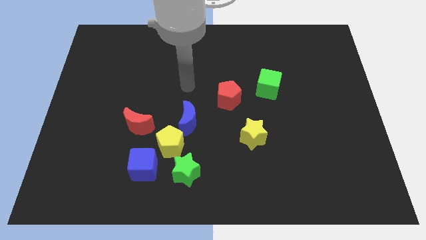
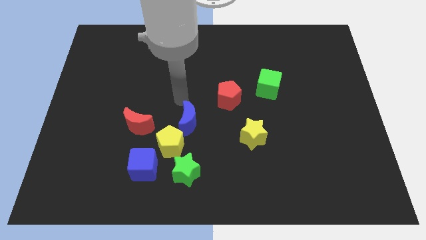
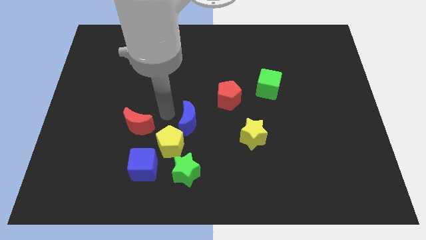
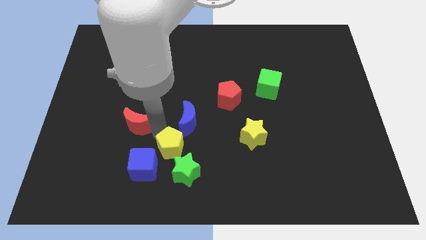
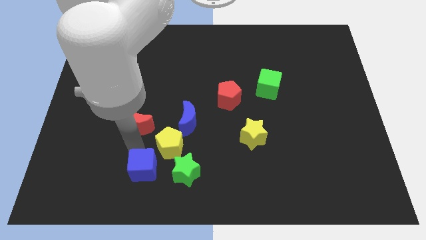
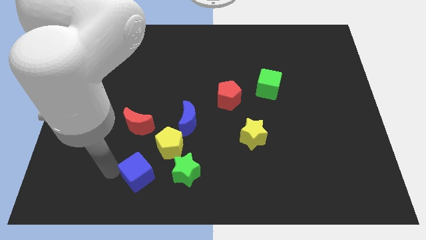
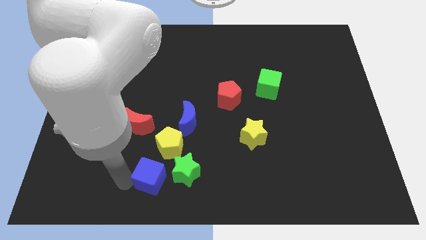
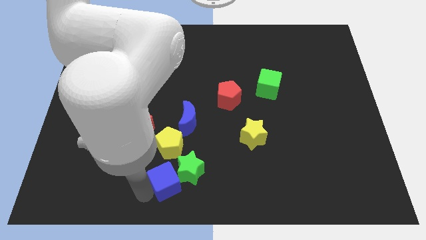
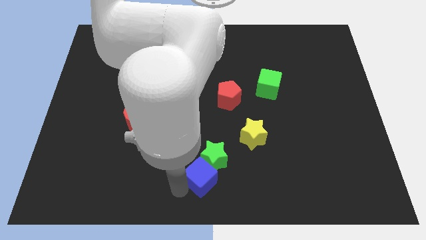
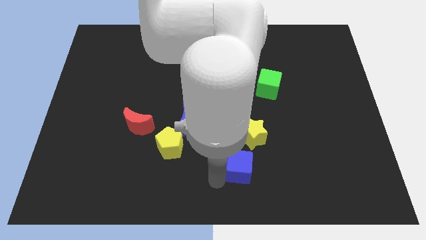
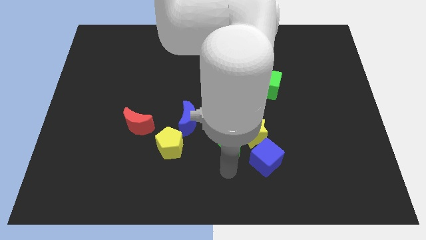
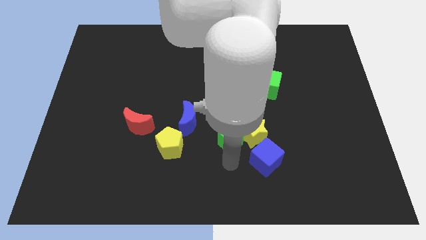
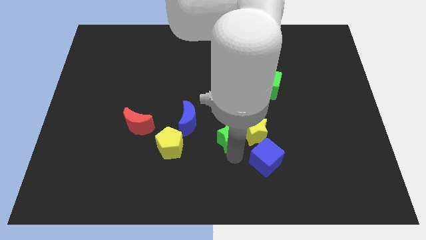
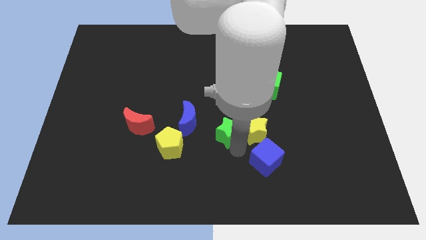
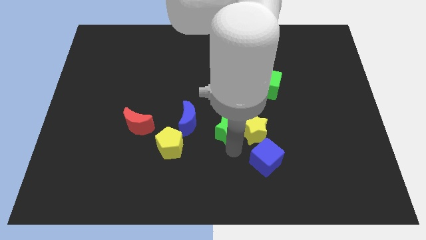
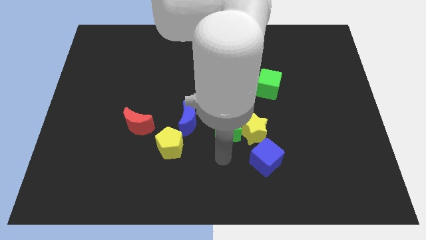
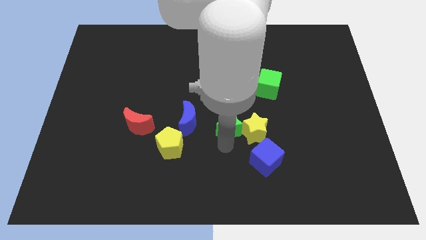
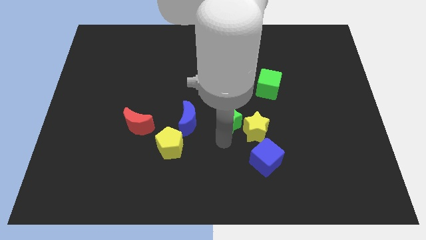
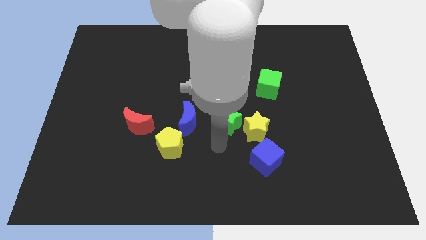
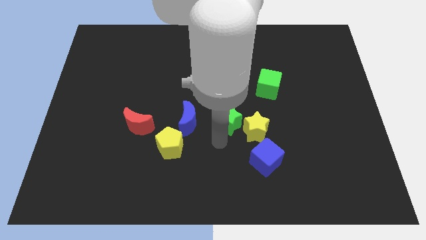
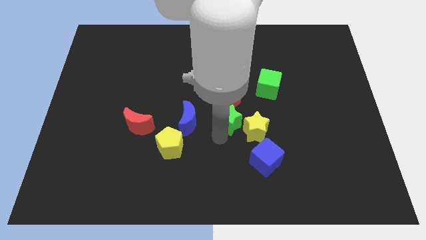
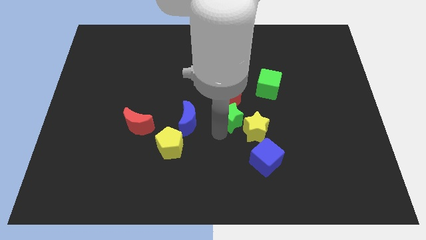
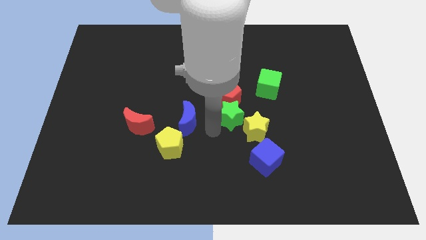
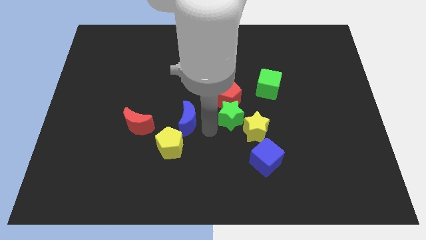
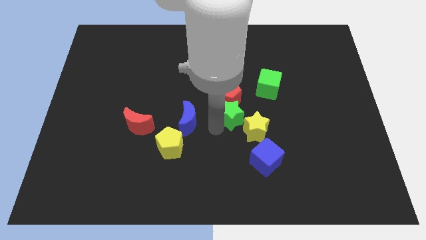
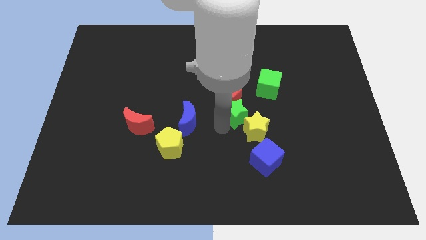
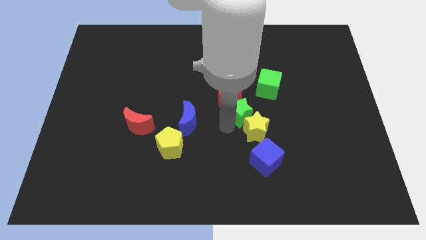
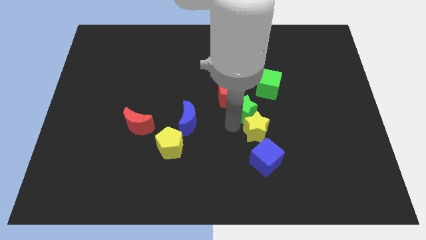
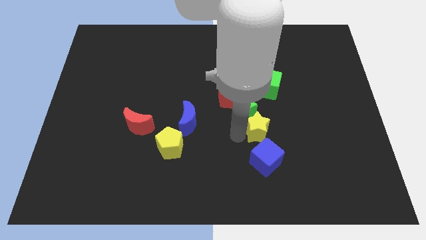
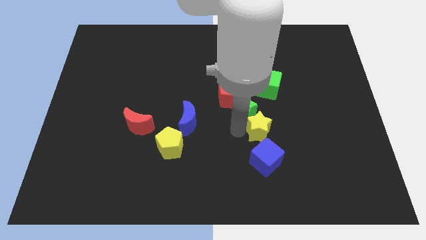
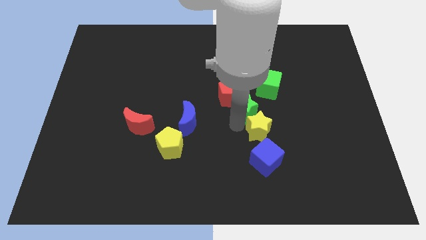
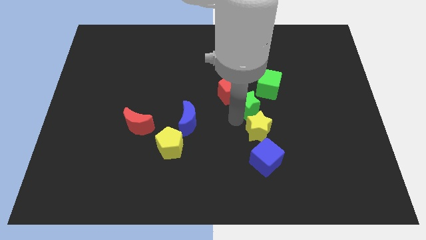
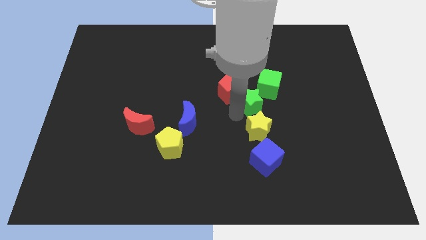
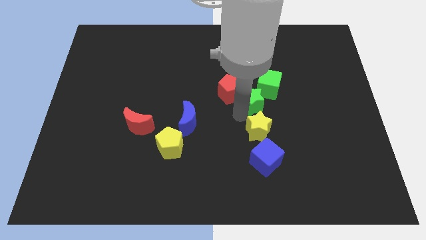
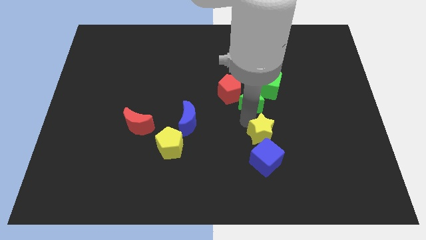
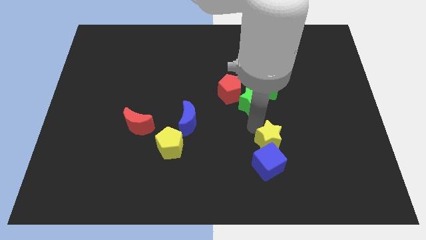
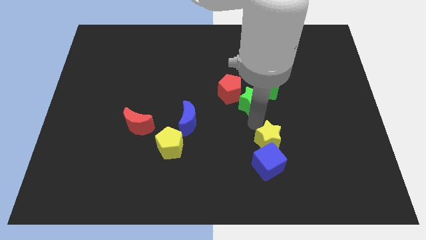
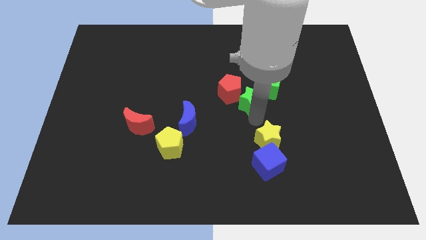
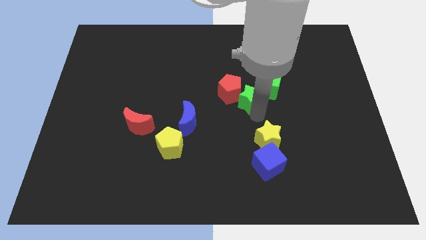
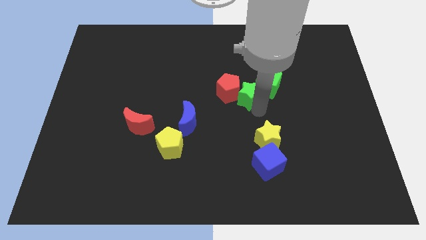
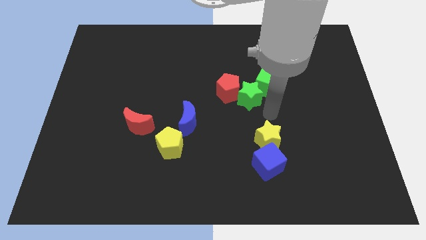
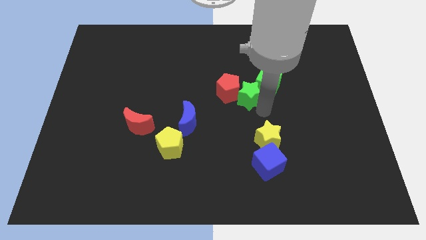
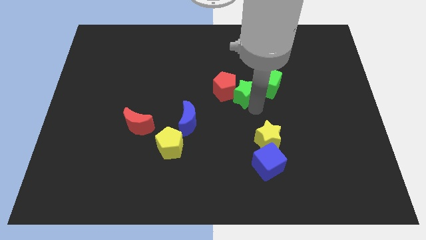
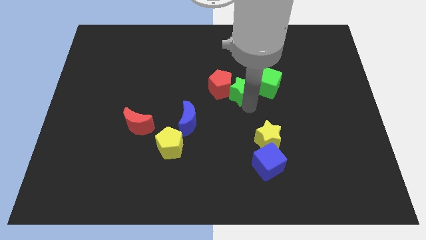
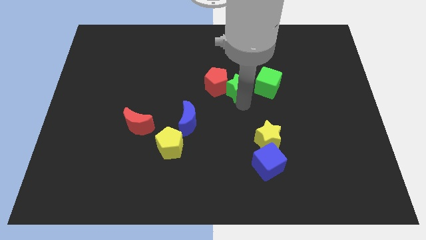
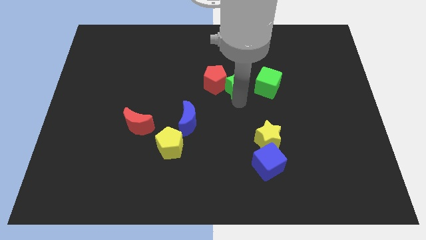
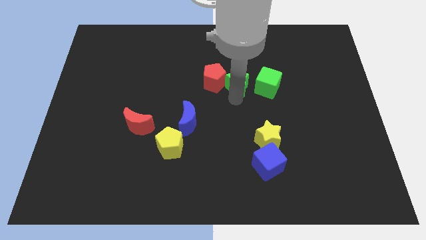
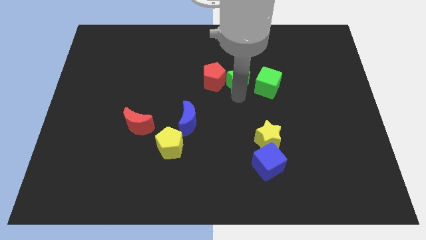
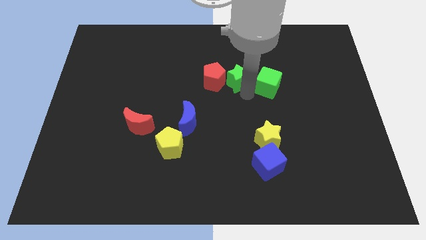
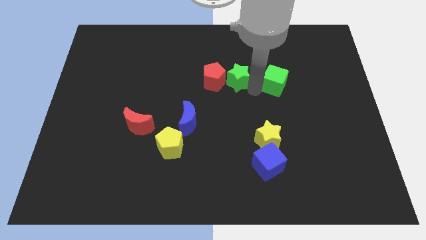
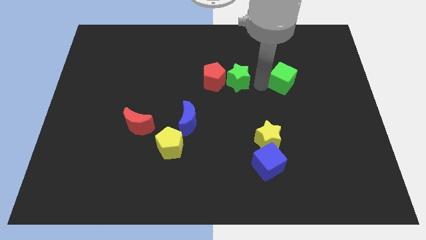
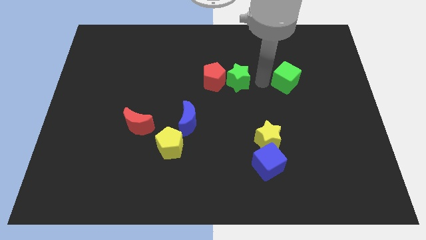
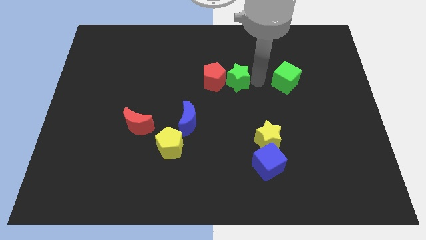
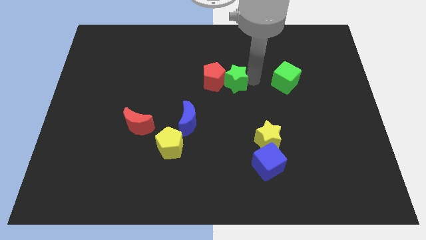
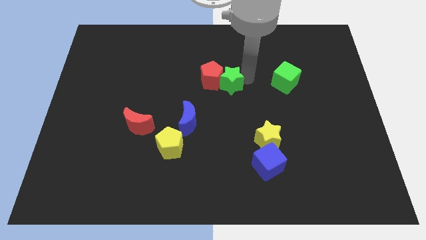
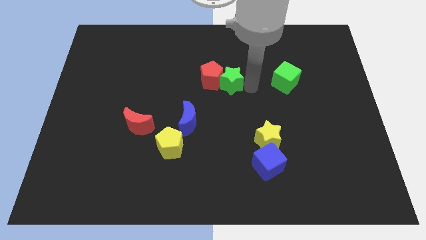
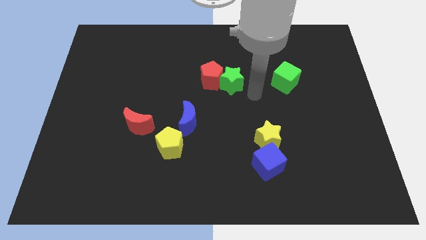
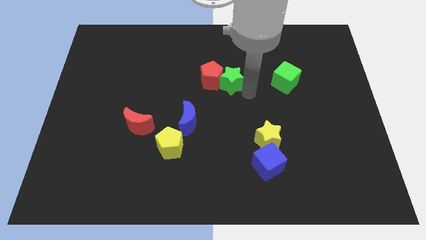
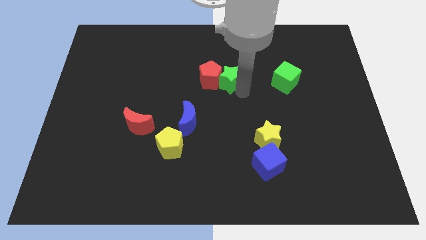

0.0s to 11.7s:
move the green star upwards

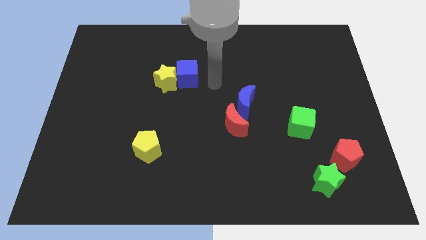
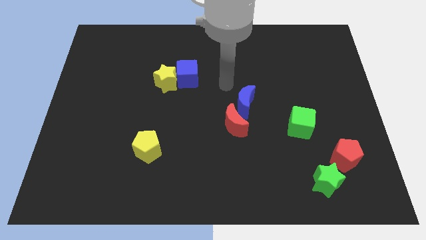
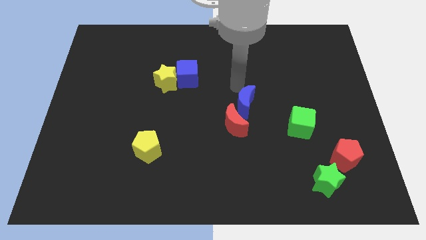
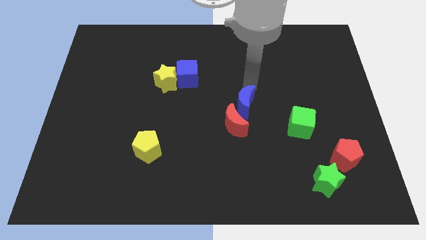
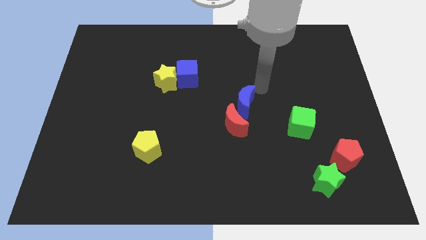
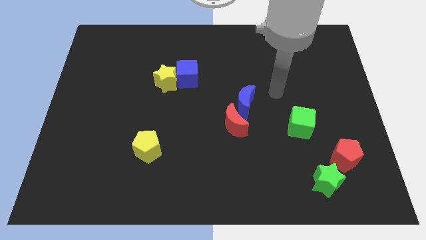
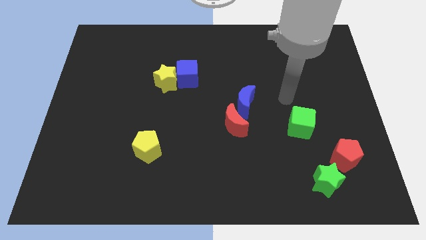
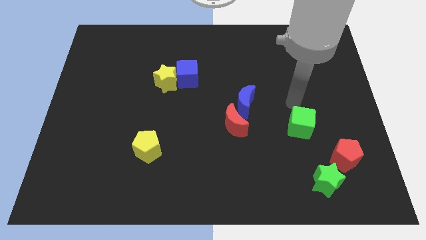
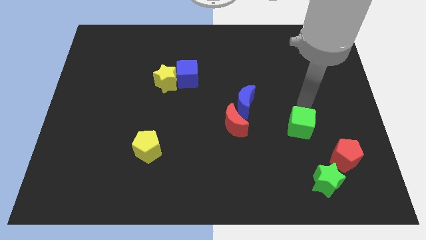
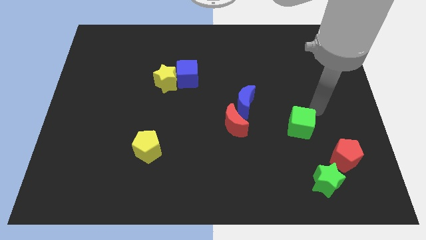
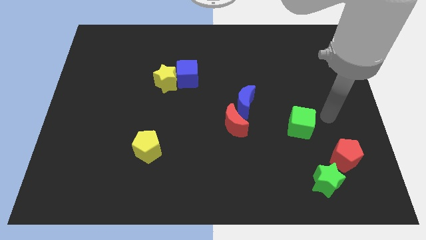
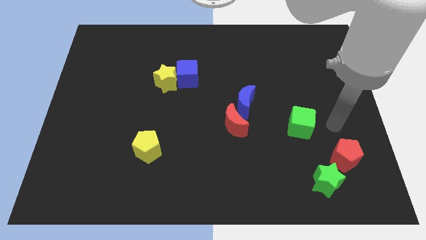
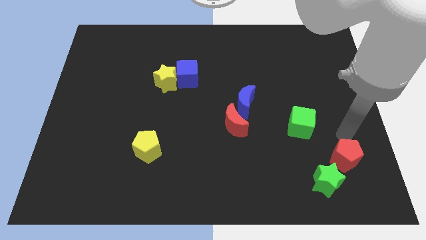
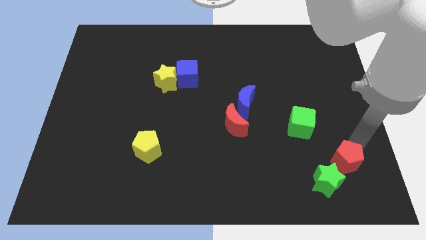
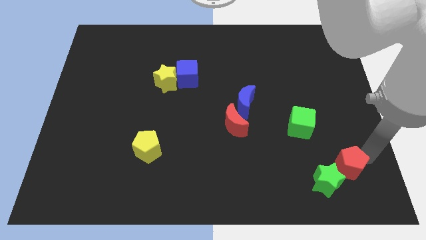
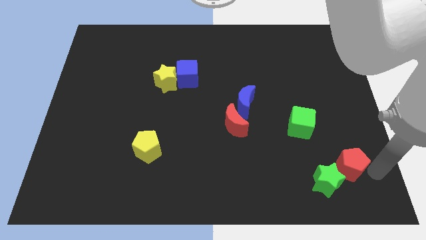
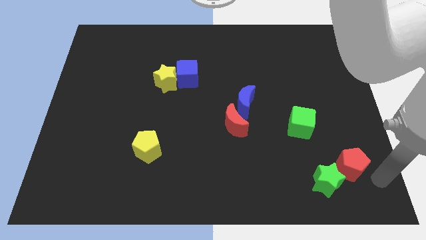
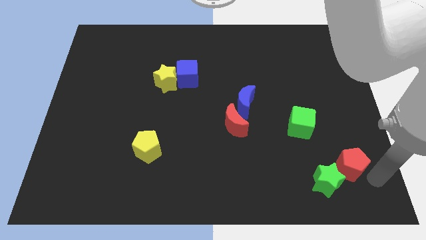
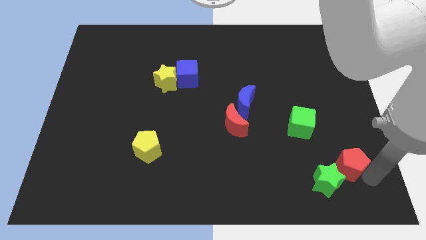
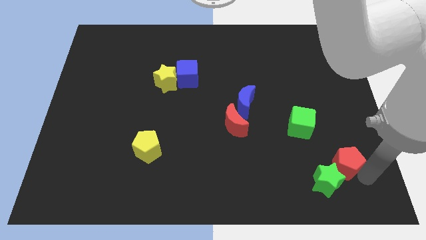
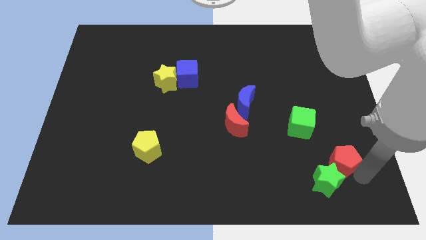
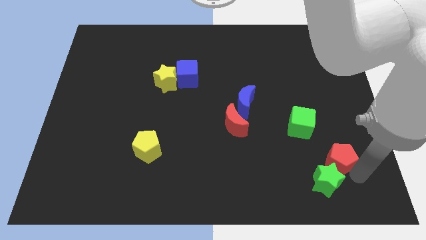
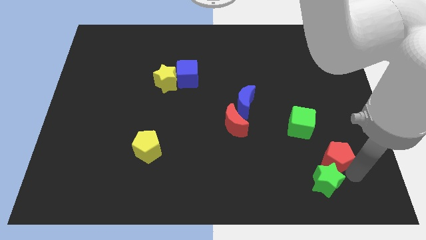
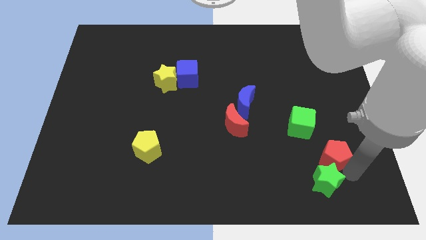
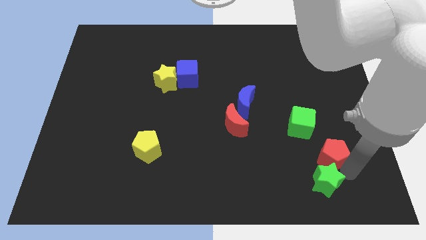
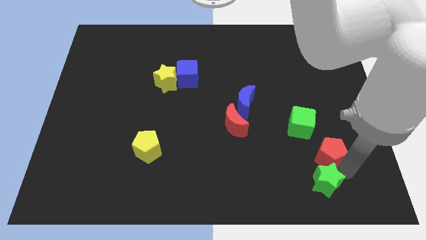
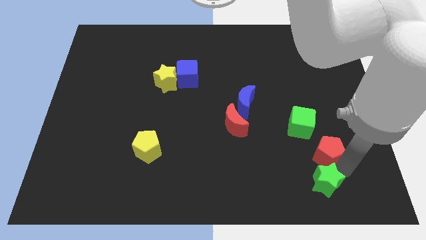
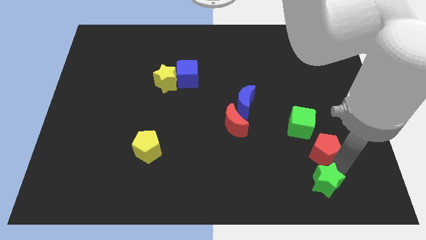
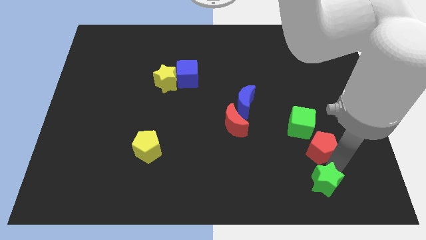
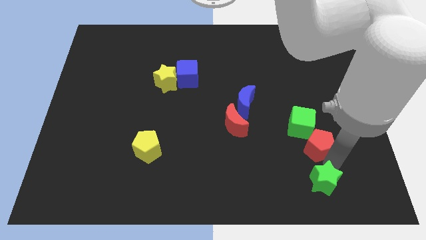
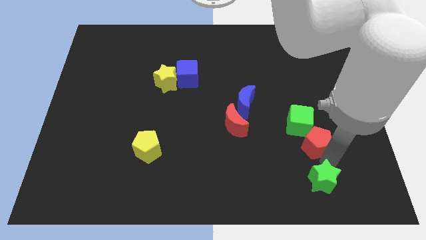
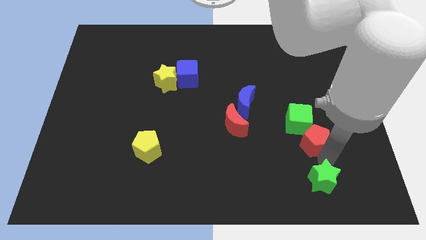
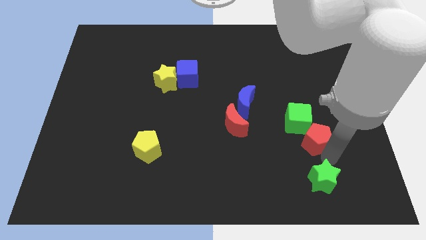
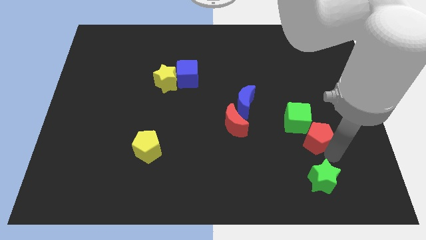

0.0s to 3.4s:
slightly move the red pentagon up and left
